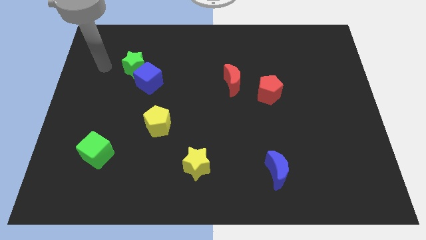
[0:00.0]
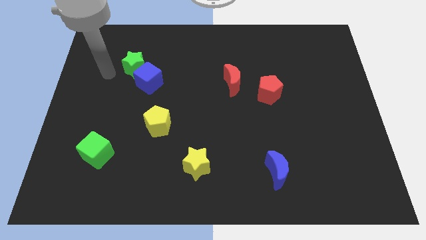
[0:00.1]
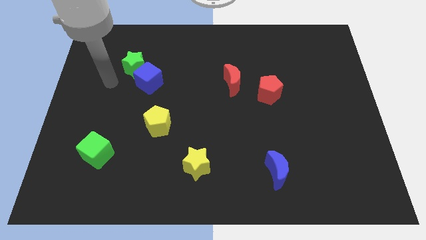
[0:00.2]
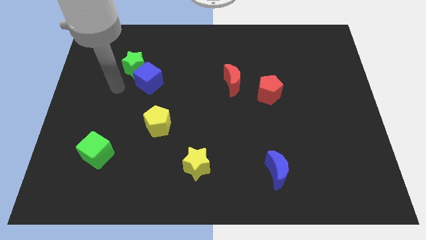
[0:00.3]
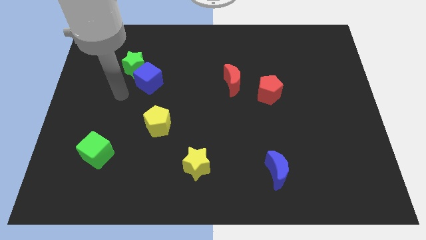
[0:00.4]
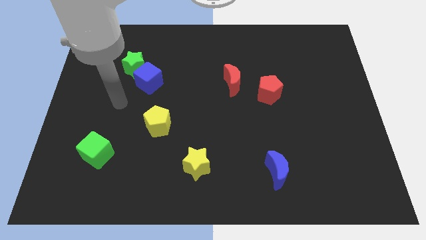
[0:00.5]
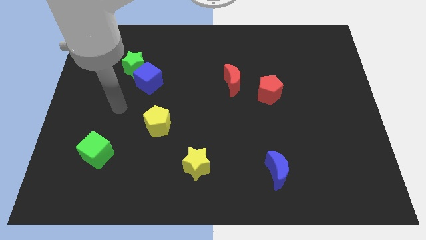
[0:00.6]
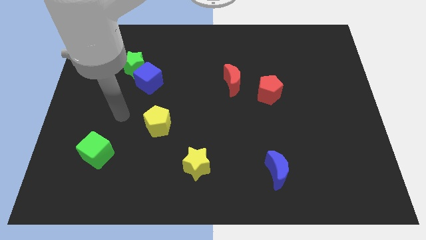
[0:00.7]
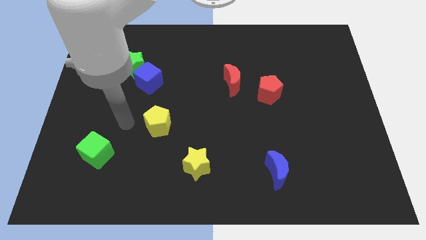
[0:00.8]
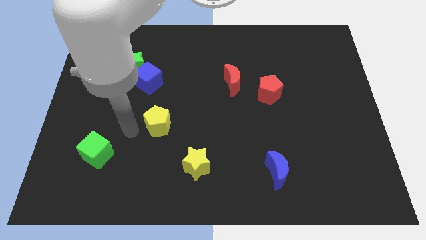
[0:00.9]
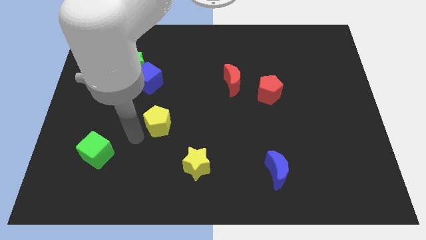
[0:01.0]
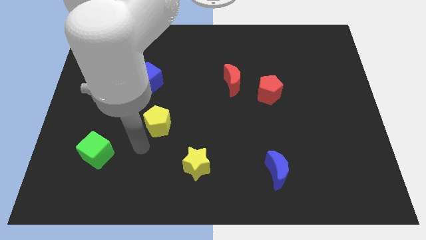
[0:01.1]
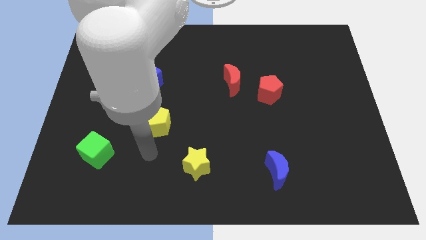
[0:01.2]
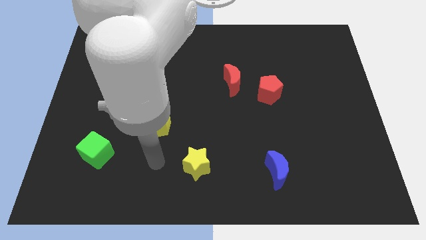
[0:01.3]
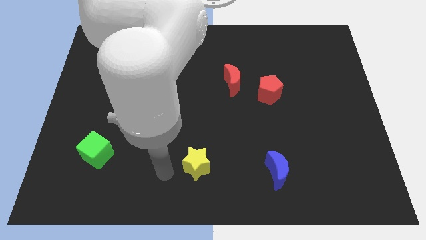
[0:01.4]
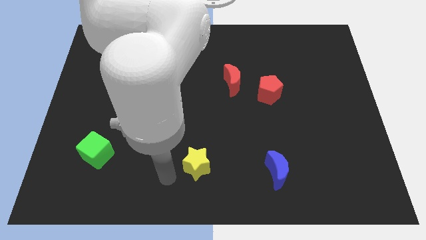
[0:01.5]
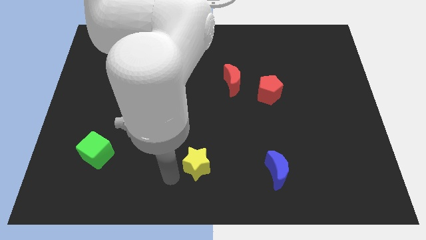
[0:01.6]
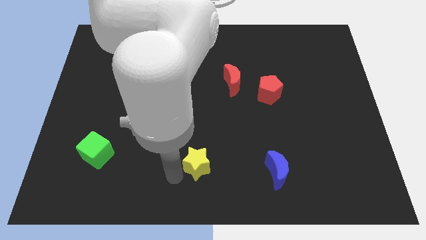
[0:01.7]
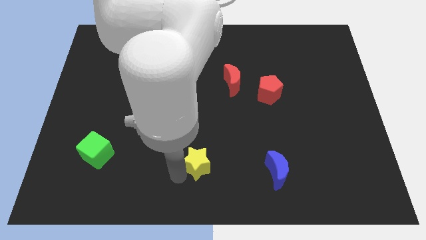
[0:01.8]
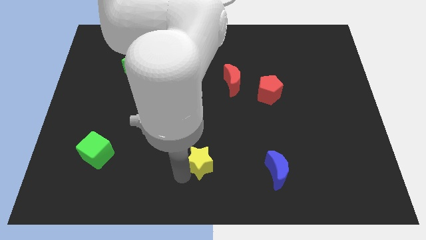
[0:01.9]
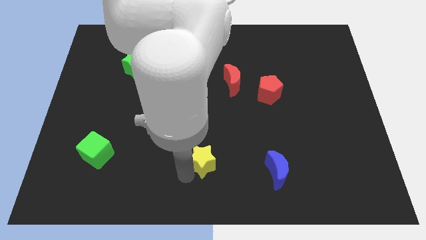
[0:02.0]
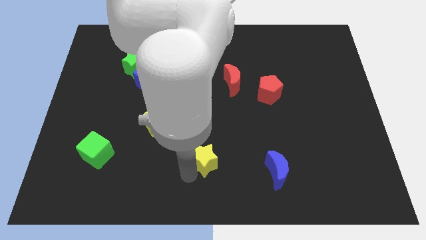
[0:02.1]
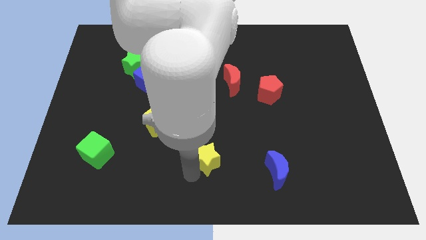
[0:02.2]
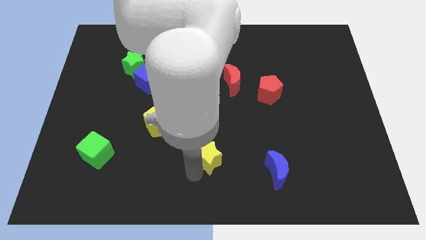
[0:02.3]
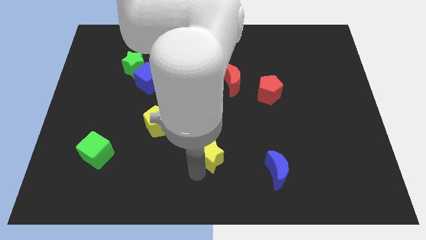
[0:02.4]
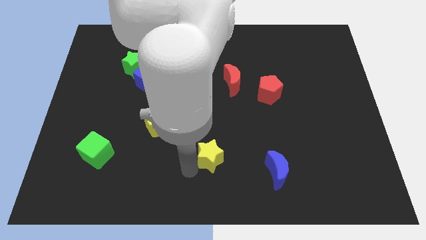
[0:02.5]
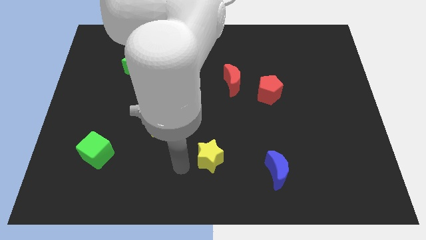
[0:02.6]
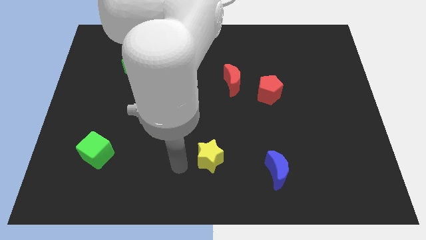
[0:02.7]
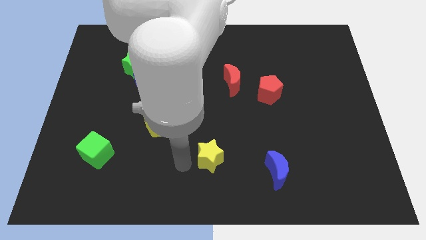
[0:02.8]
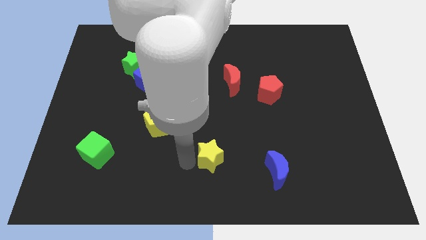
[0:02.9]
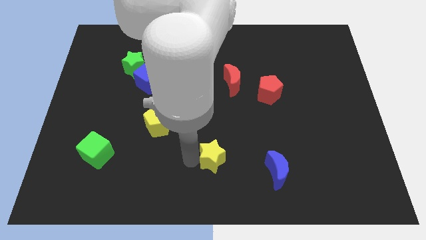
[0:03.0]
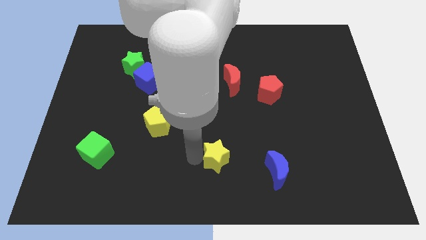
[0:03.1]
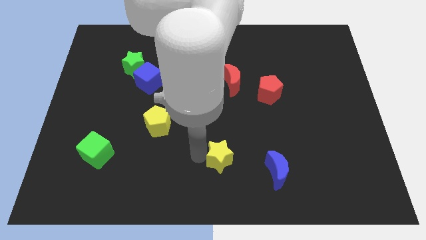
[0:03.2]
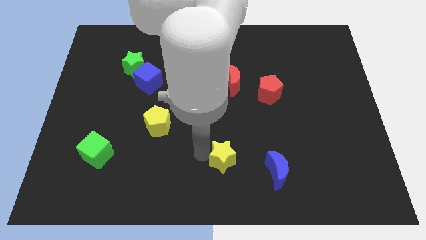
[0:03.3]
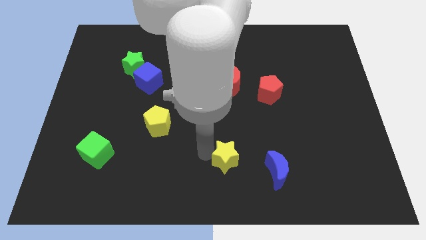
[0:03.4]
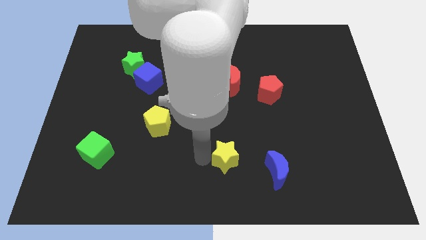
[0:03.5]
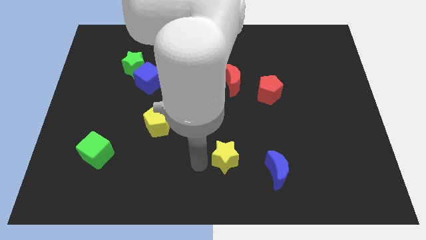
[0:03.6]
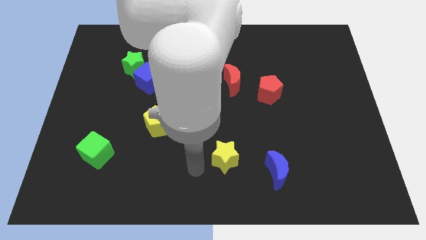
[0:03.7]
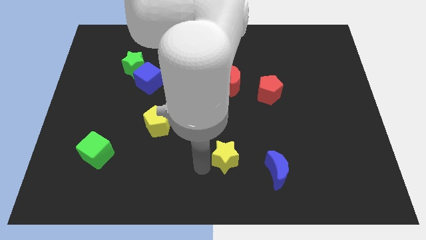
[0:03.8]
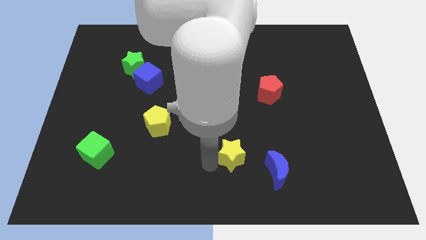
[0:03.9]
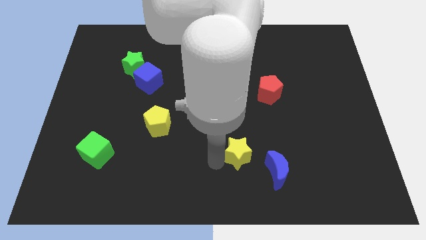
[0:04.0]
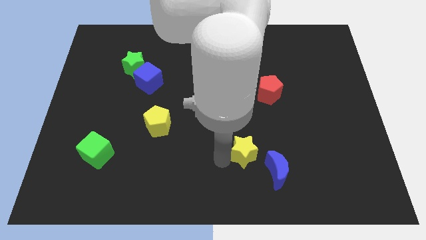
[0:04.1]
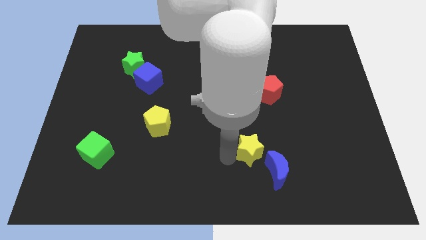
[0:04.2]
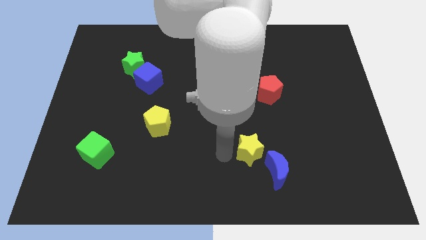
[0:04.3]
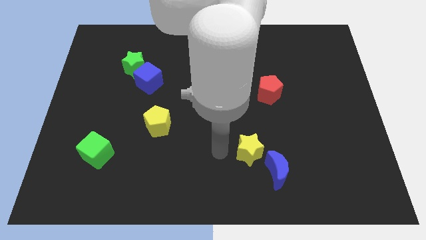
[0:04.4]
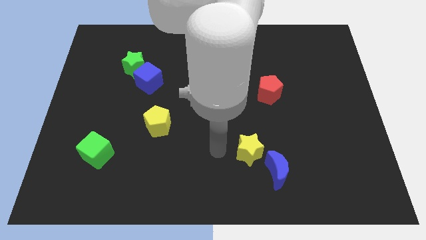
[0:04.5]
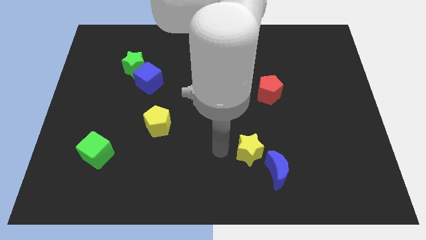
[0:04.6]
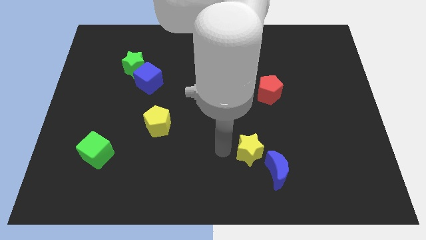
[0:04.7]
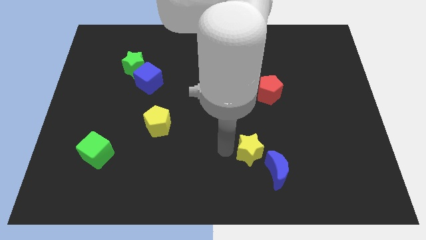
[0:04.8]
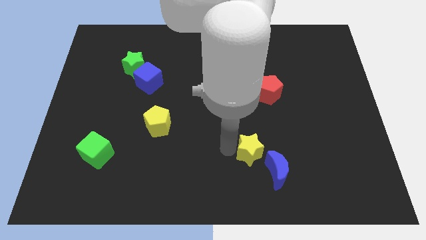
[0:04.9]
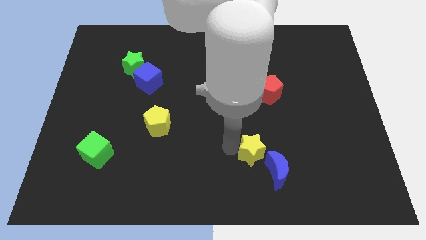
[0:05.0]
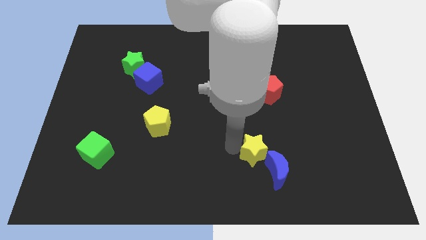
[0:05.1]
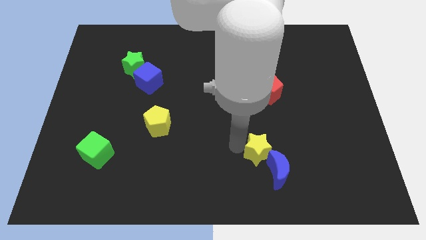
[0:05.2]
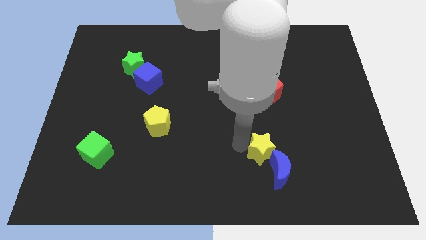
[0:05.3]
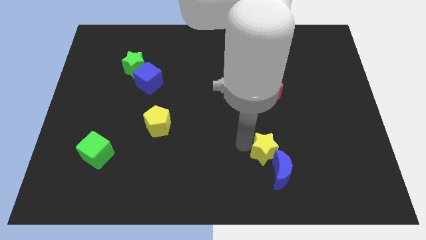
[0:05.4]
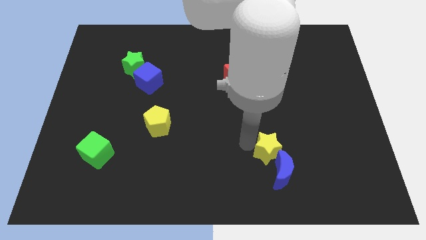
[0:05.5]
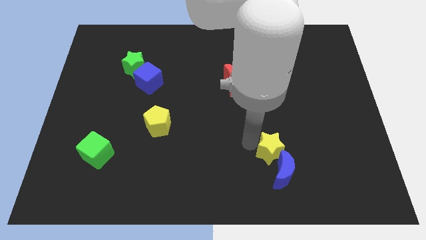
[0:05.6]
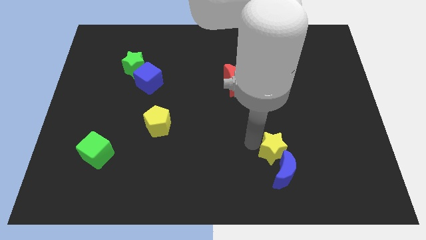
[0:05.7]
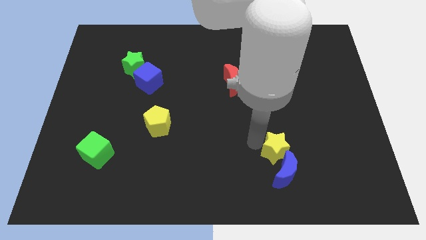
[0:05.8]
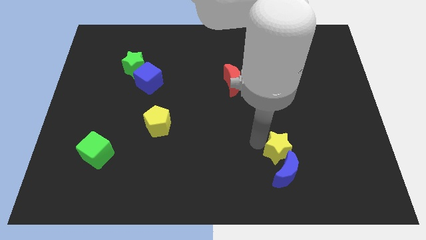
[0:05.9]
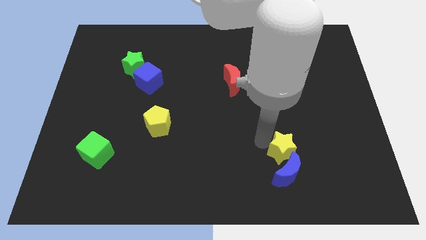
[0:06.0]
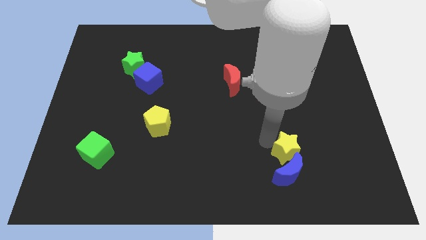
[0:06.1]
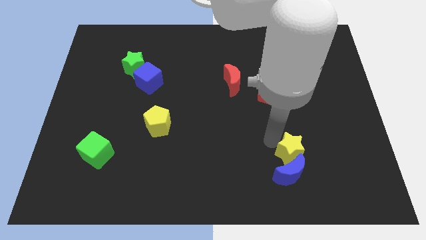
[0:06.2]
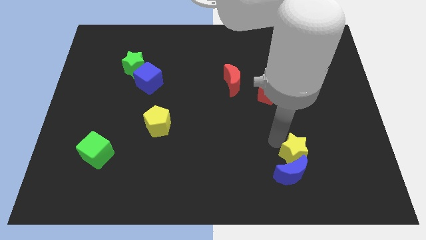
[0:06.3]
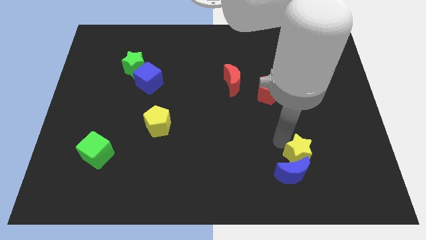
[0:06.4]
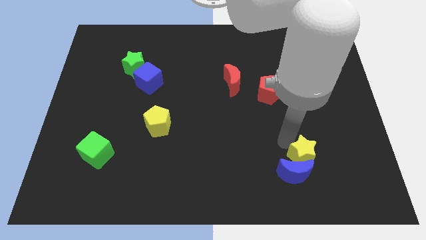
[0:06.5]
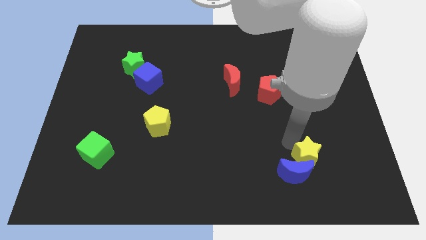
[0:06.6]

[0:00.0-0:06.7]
move the yellow star to the right of the blue moon
